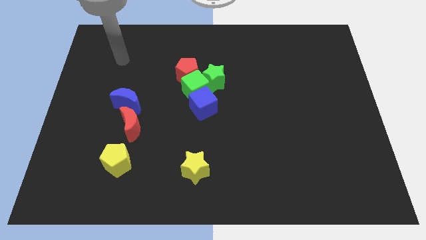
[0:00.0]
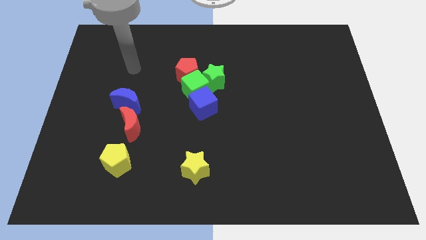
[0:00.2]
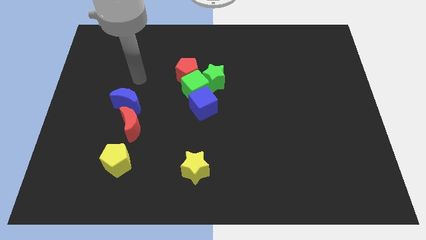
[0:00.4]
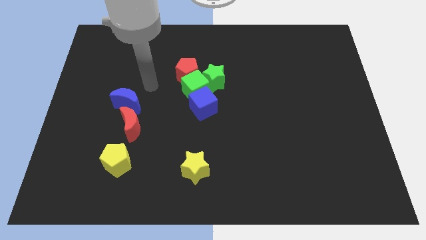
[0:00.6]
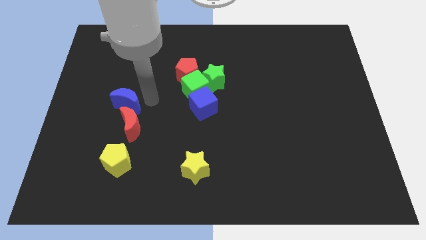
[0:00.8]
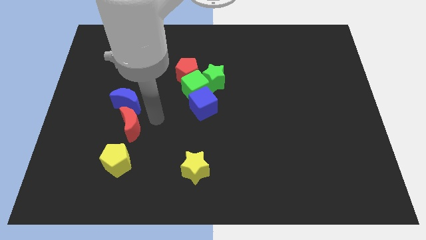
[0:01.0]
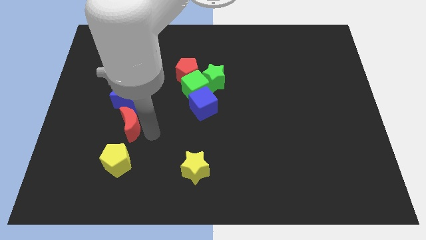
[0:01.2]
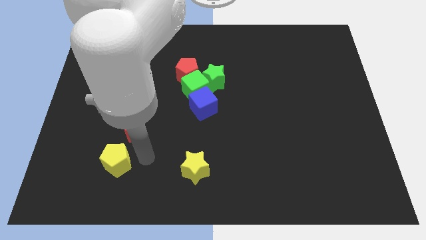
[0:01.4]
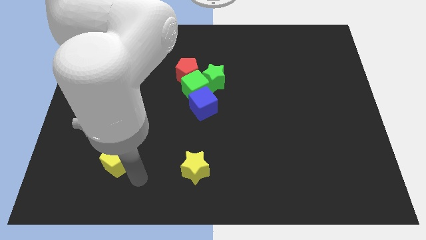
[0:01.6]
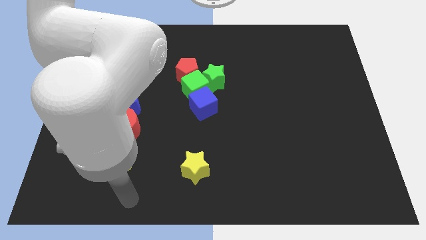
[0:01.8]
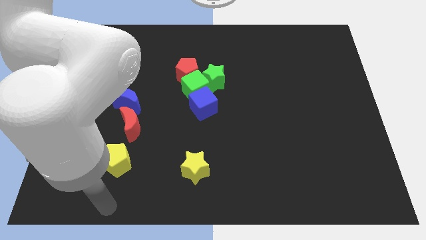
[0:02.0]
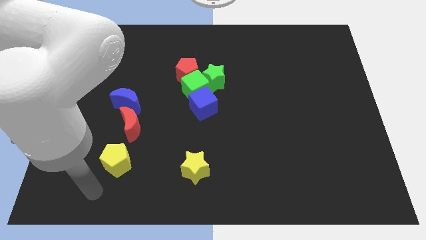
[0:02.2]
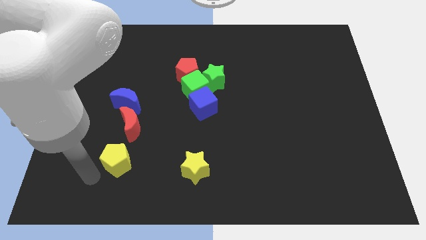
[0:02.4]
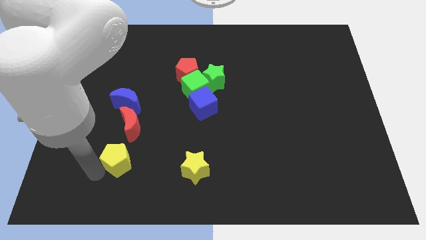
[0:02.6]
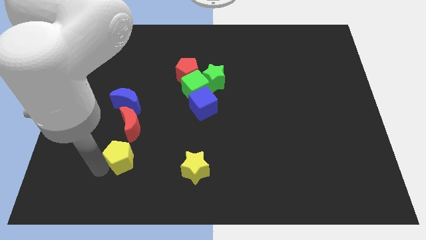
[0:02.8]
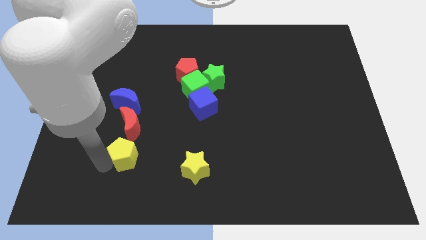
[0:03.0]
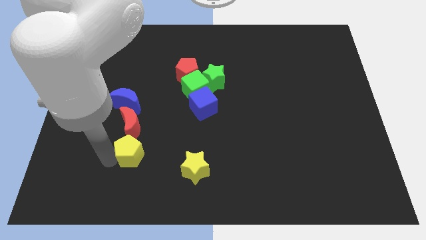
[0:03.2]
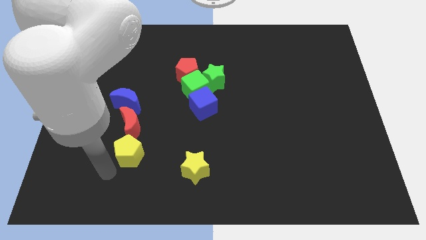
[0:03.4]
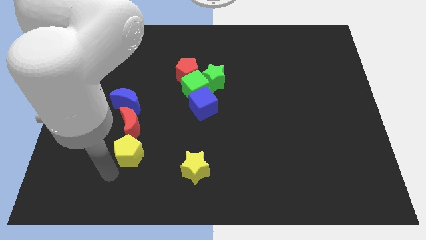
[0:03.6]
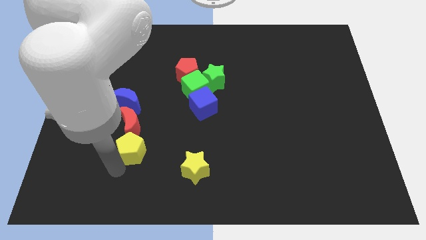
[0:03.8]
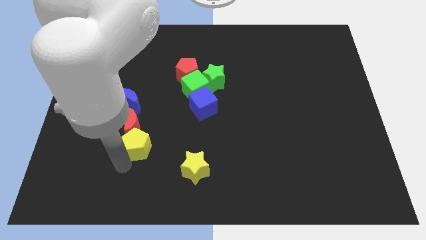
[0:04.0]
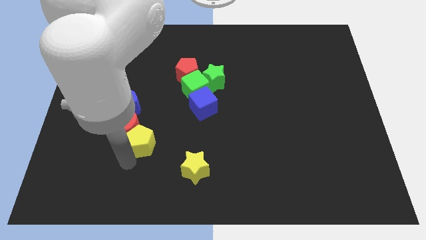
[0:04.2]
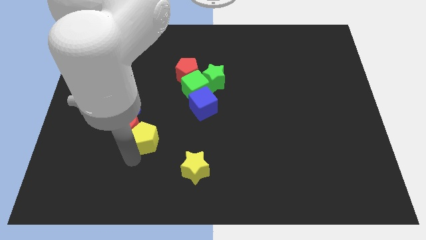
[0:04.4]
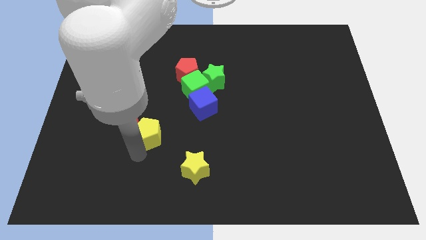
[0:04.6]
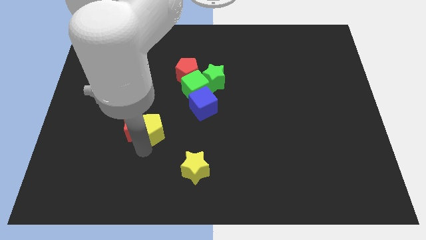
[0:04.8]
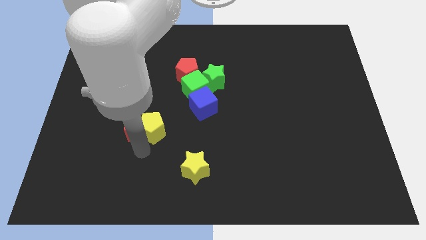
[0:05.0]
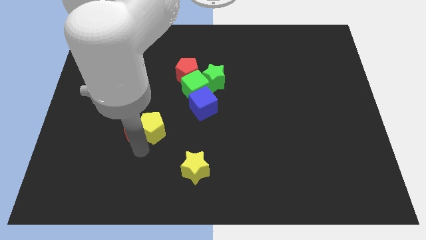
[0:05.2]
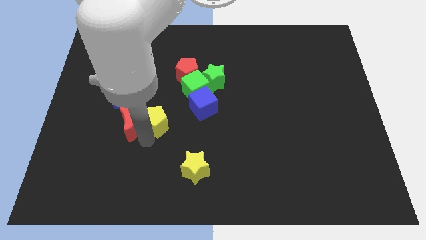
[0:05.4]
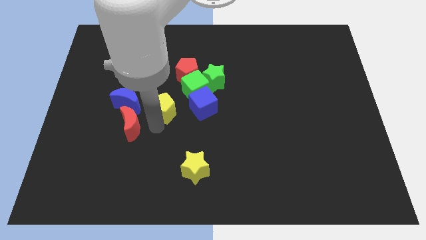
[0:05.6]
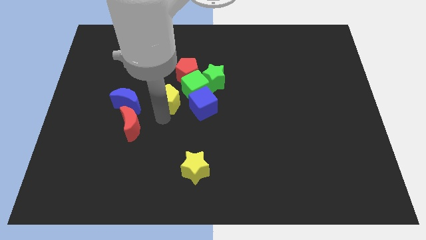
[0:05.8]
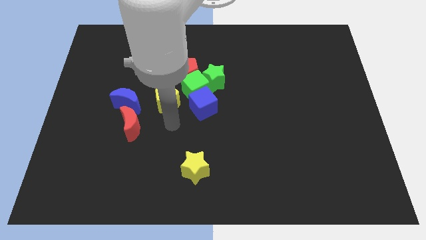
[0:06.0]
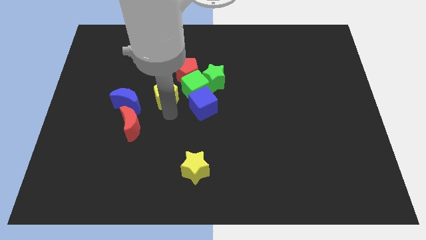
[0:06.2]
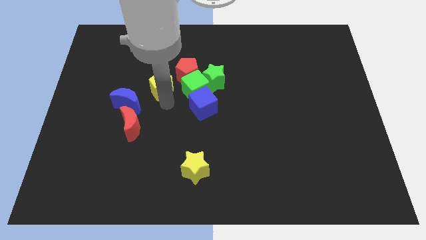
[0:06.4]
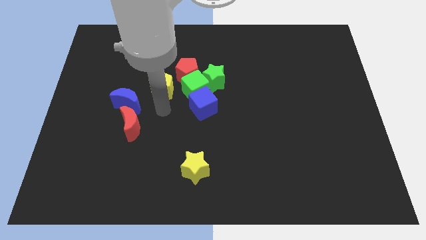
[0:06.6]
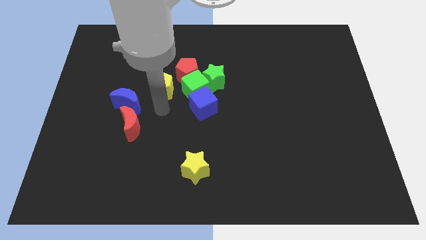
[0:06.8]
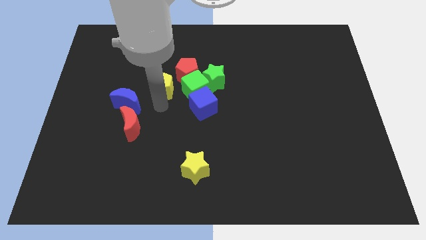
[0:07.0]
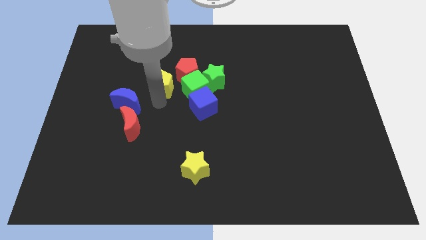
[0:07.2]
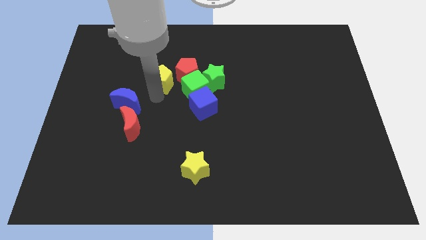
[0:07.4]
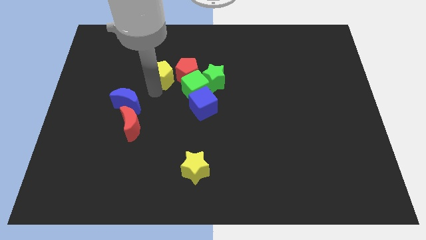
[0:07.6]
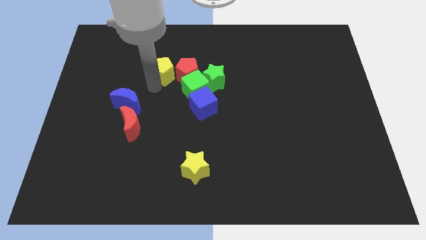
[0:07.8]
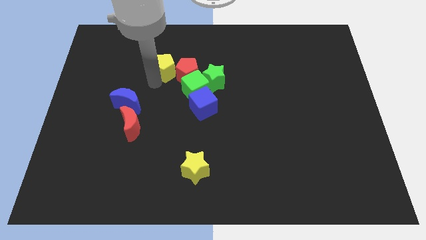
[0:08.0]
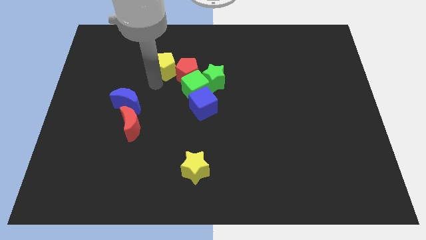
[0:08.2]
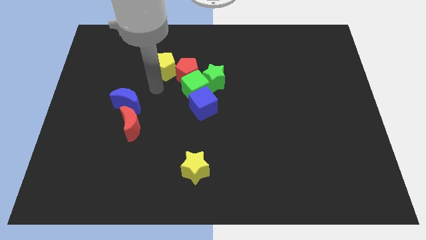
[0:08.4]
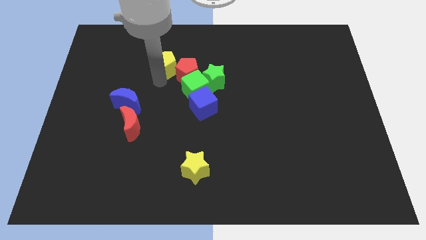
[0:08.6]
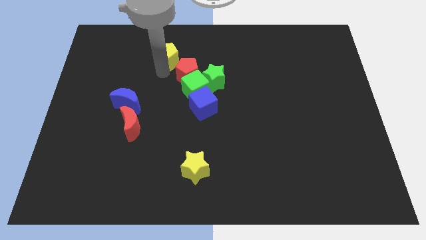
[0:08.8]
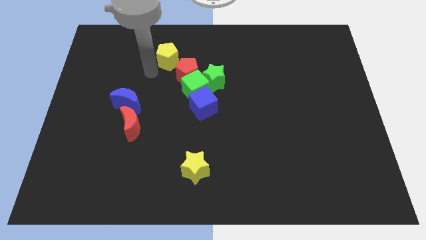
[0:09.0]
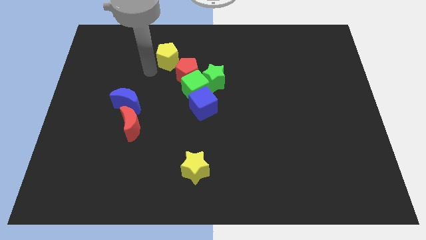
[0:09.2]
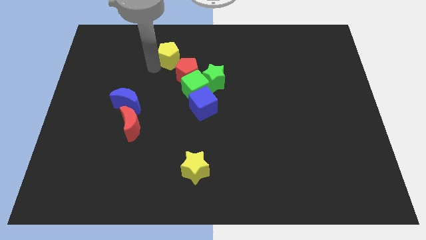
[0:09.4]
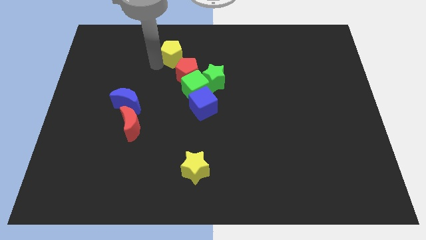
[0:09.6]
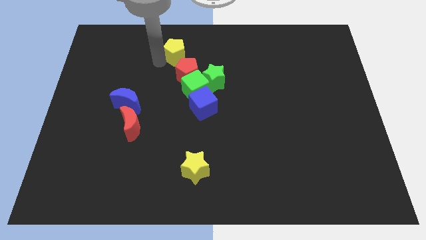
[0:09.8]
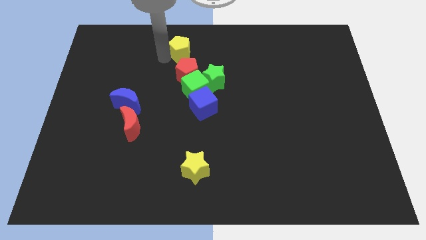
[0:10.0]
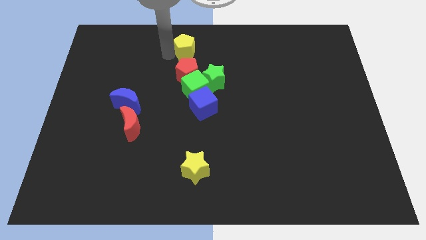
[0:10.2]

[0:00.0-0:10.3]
move the yellow pentagon to the towards your base
